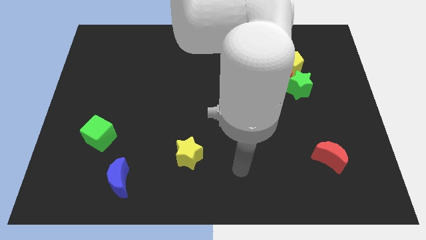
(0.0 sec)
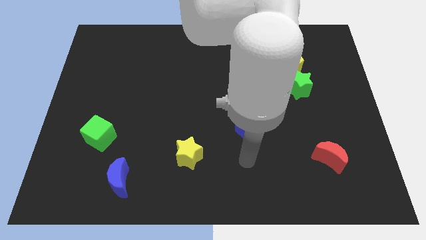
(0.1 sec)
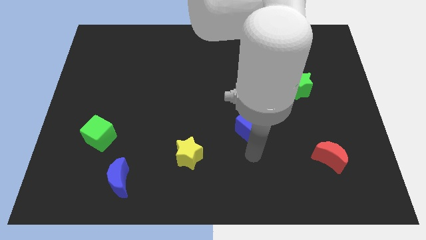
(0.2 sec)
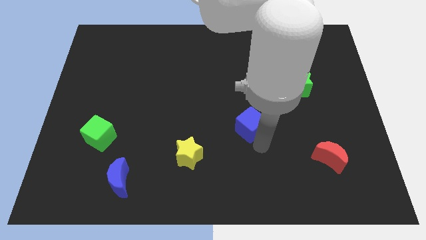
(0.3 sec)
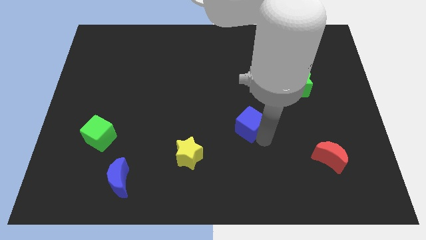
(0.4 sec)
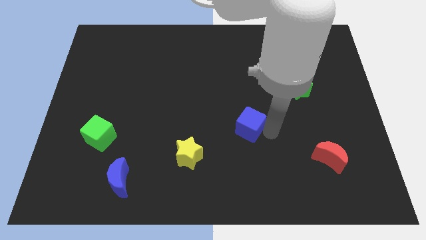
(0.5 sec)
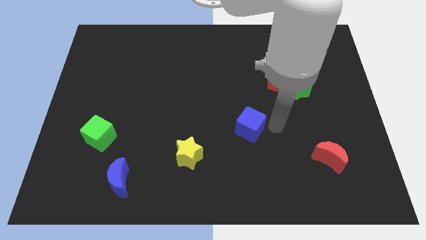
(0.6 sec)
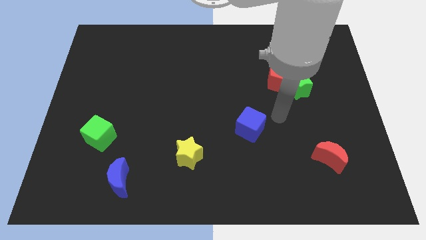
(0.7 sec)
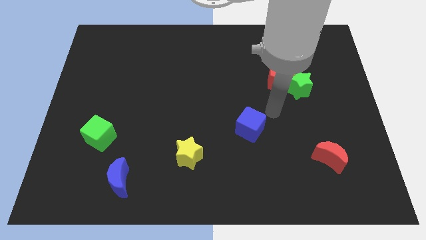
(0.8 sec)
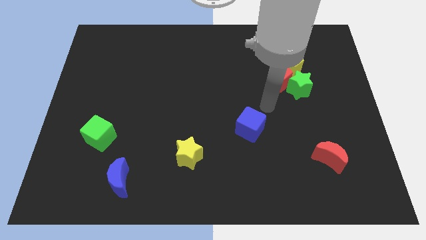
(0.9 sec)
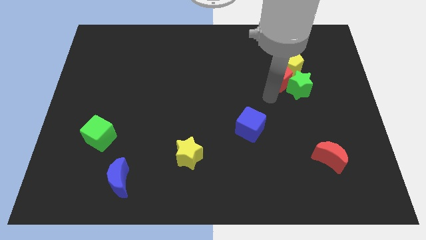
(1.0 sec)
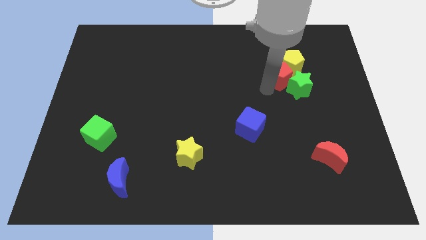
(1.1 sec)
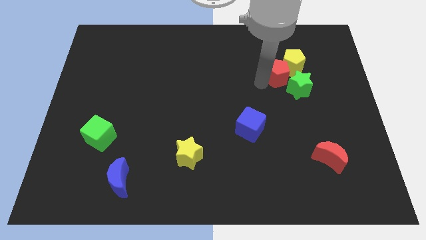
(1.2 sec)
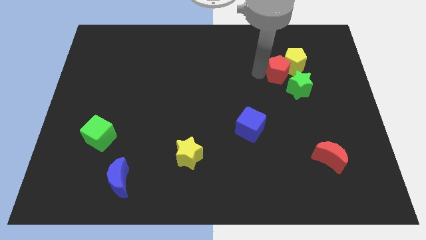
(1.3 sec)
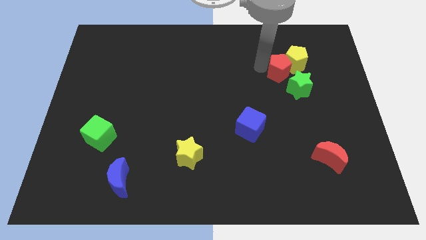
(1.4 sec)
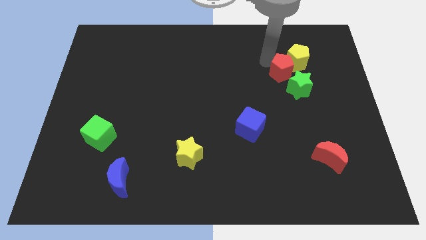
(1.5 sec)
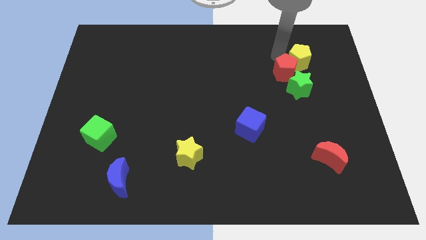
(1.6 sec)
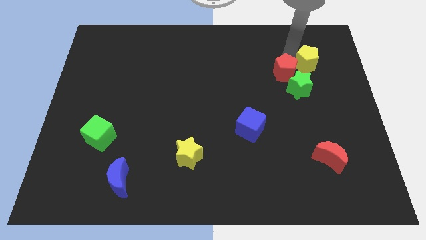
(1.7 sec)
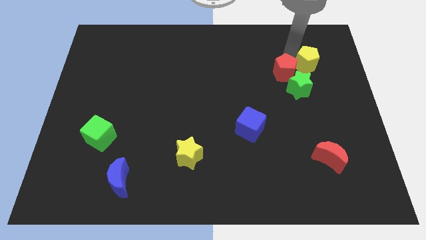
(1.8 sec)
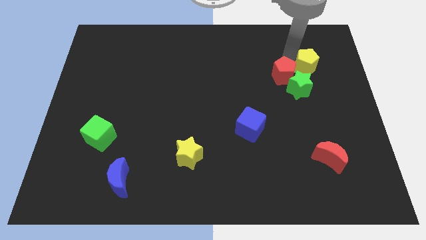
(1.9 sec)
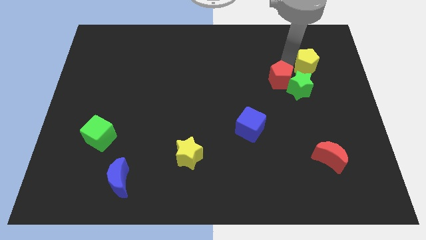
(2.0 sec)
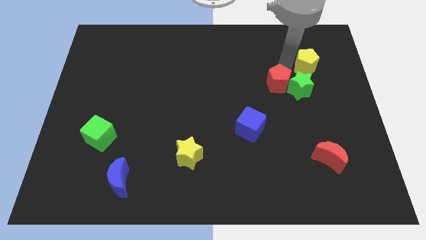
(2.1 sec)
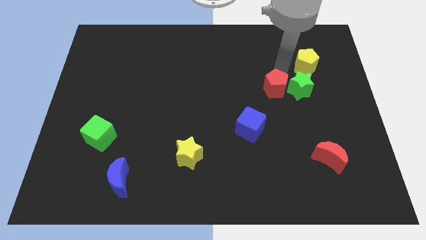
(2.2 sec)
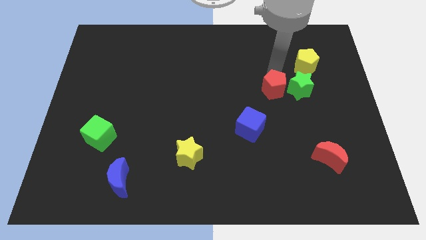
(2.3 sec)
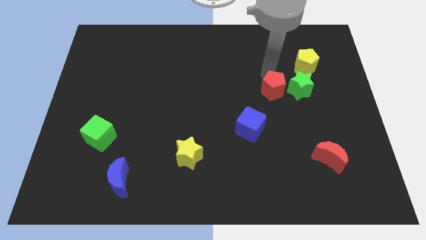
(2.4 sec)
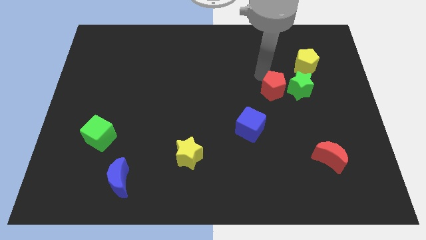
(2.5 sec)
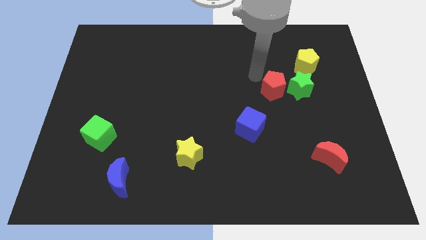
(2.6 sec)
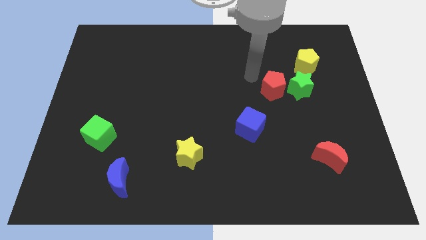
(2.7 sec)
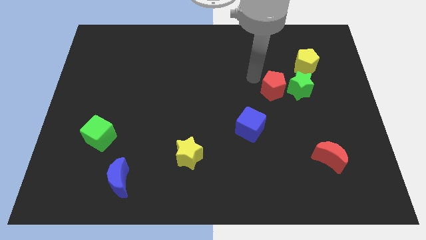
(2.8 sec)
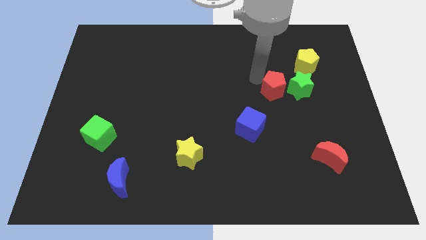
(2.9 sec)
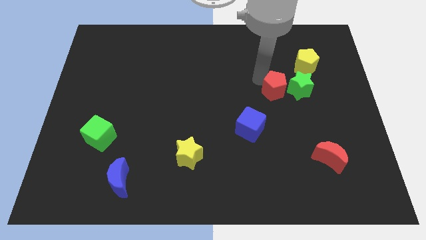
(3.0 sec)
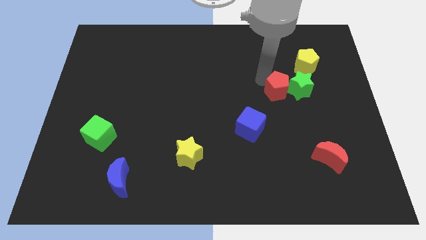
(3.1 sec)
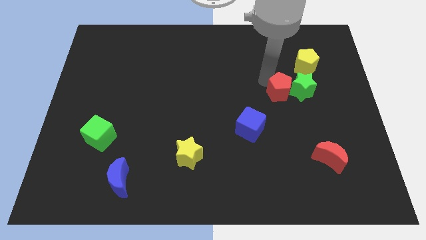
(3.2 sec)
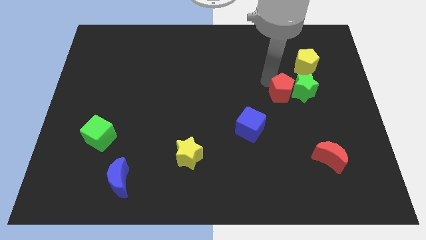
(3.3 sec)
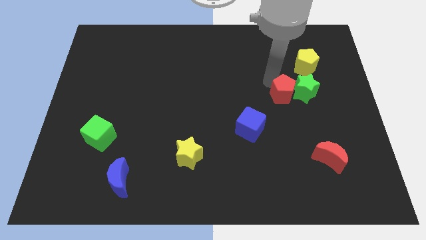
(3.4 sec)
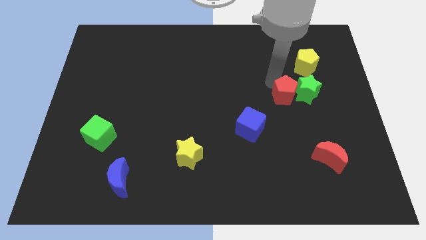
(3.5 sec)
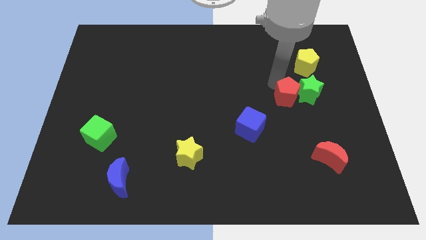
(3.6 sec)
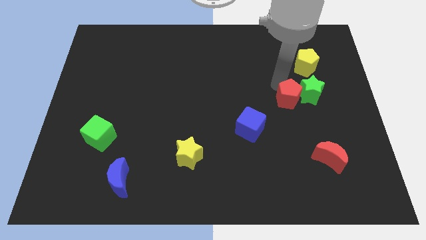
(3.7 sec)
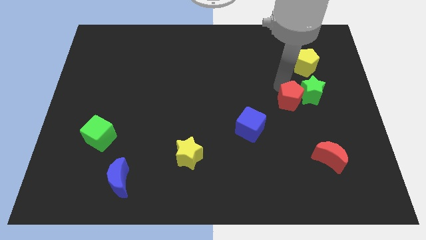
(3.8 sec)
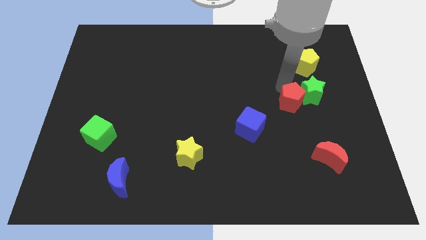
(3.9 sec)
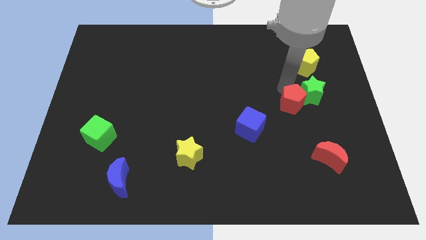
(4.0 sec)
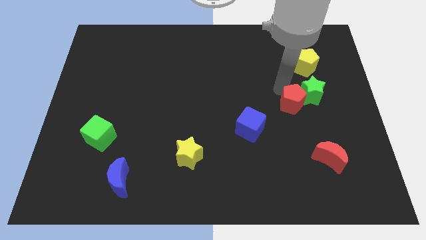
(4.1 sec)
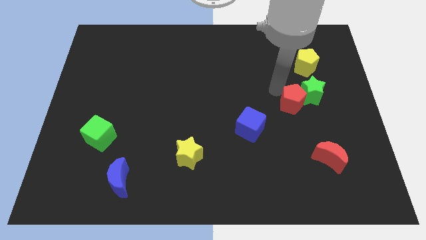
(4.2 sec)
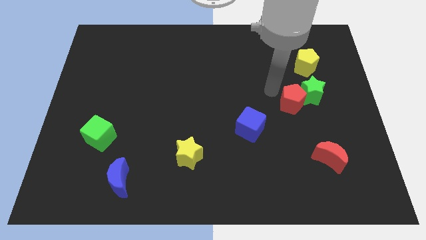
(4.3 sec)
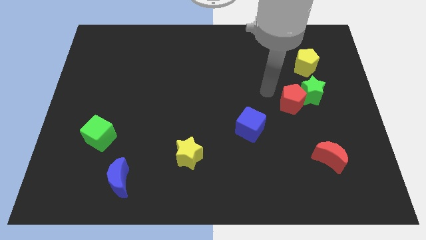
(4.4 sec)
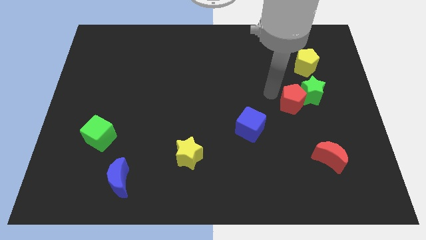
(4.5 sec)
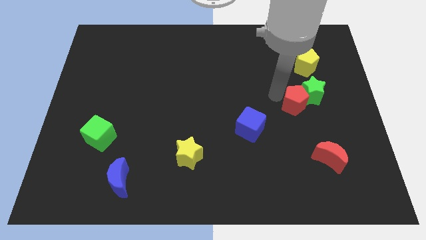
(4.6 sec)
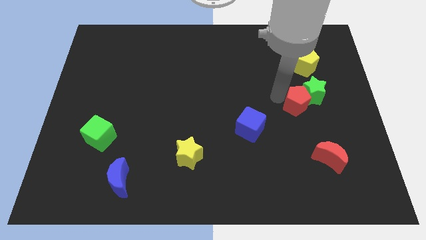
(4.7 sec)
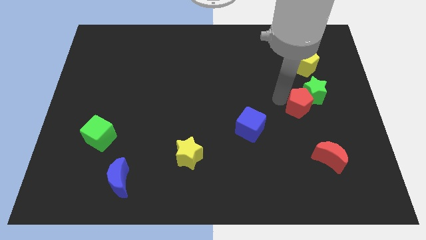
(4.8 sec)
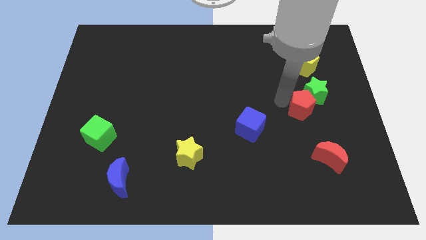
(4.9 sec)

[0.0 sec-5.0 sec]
push the red pentagon to the top side of the red moon

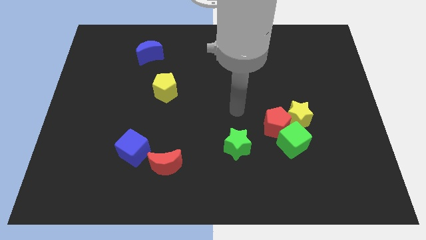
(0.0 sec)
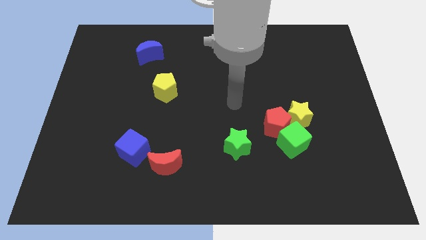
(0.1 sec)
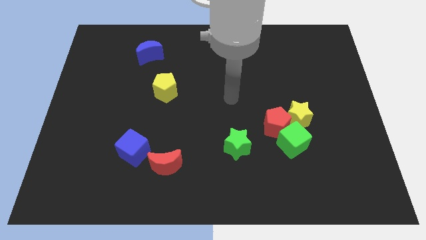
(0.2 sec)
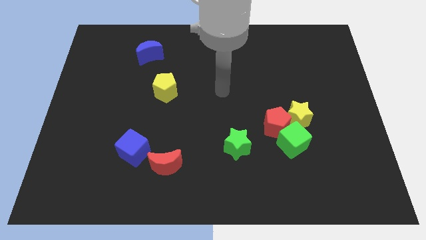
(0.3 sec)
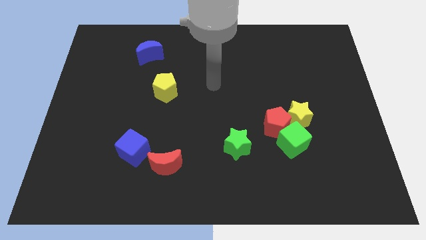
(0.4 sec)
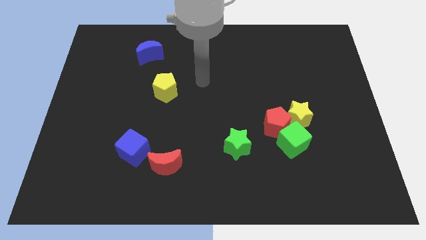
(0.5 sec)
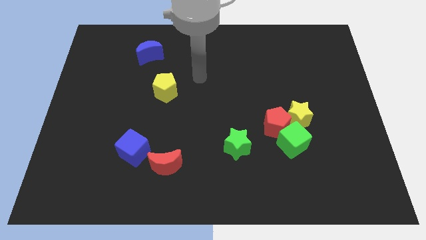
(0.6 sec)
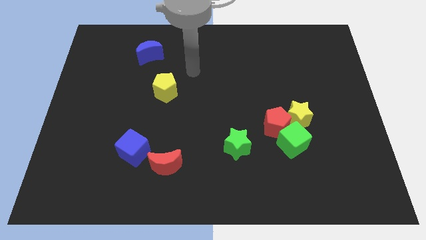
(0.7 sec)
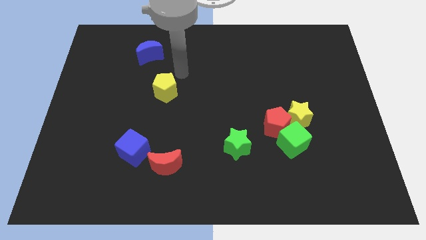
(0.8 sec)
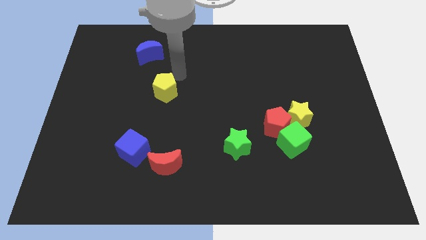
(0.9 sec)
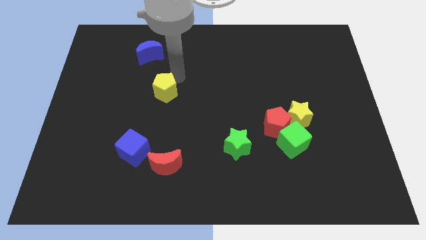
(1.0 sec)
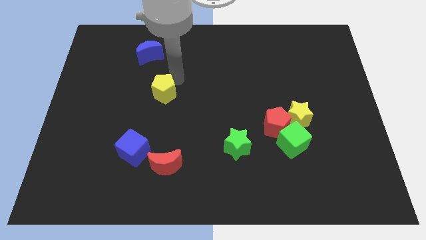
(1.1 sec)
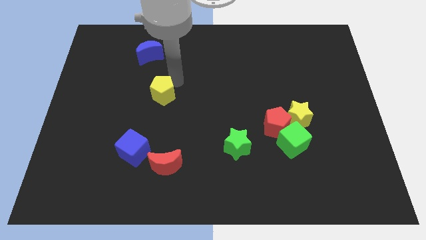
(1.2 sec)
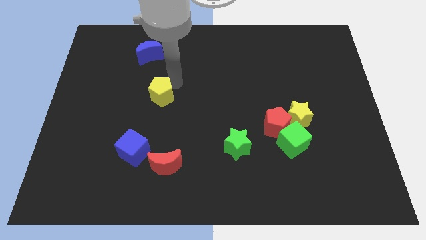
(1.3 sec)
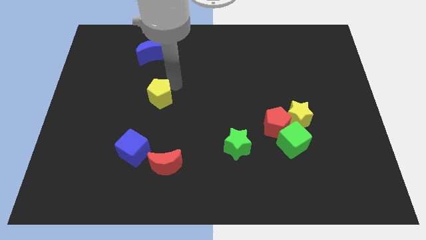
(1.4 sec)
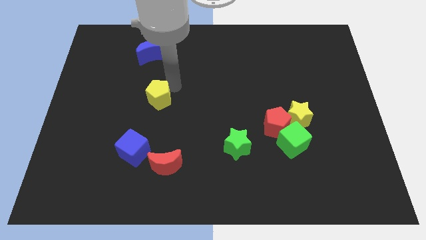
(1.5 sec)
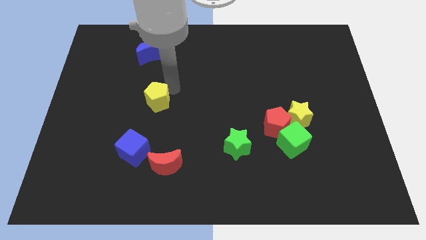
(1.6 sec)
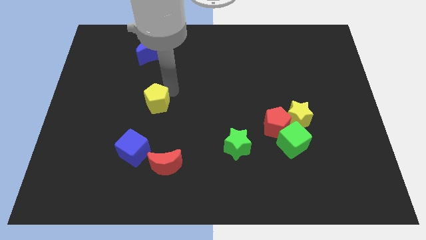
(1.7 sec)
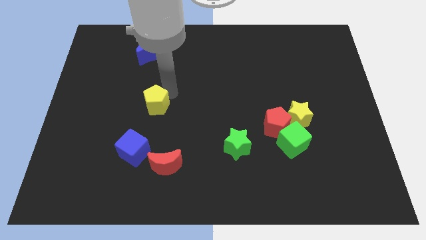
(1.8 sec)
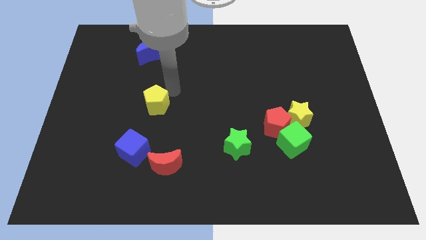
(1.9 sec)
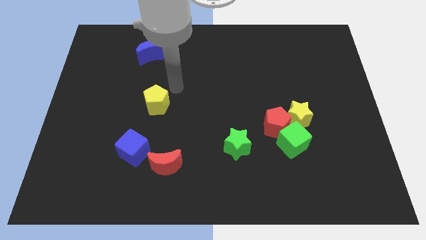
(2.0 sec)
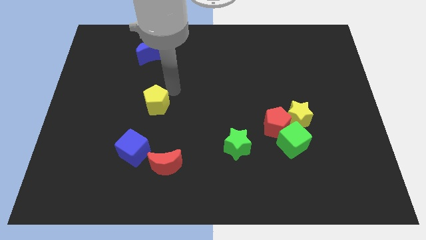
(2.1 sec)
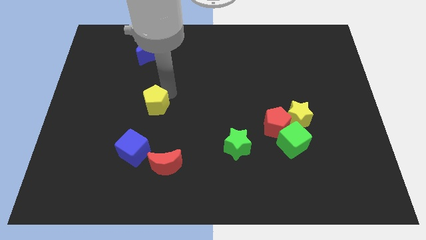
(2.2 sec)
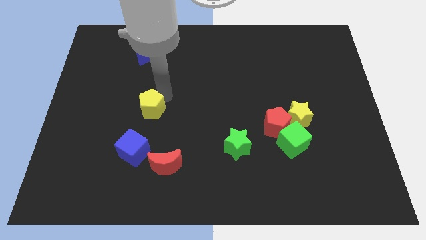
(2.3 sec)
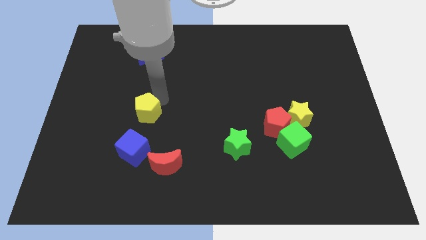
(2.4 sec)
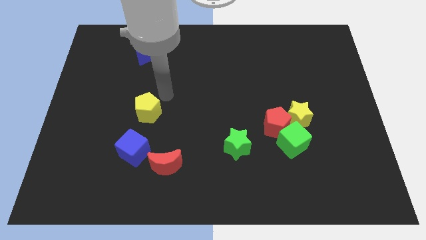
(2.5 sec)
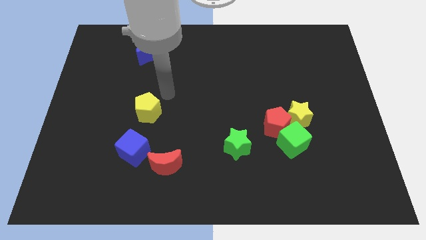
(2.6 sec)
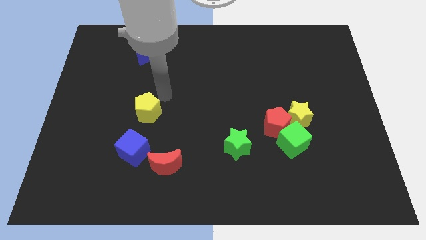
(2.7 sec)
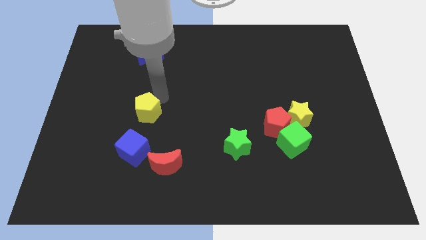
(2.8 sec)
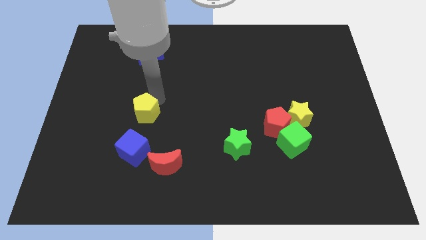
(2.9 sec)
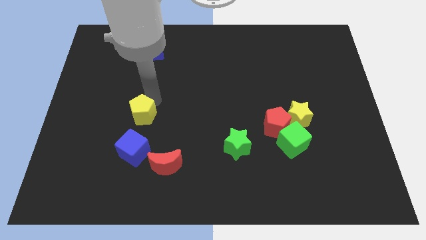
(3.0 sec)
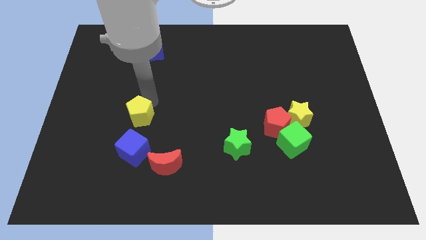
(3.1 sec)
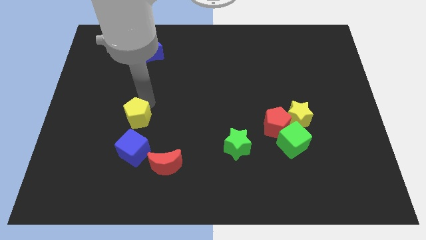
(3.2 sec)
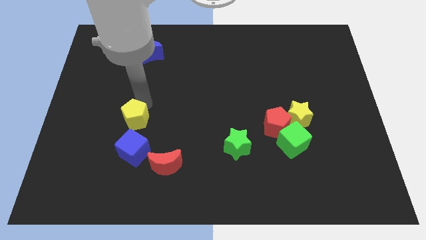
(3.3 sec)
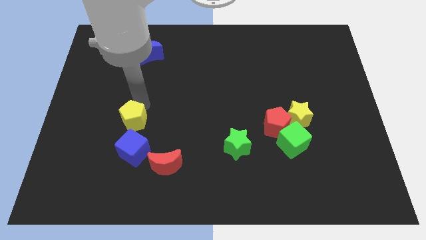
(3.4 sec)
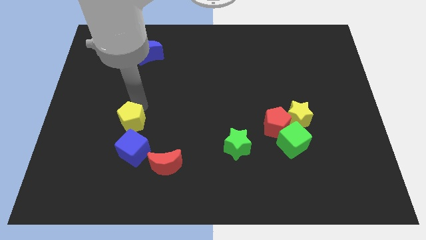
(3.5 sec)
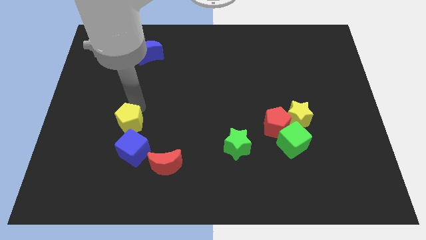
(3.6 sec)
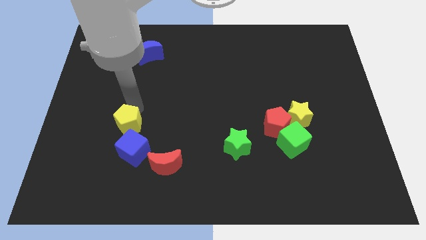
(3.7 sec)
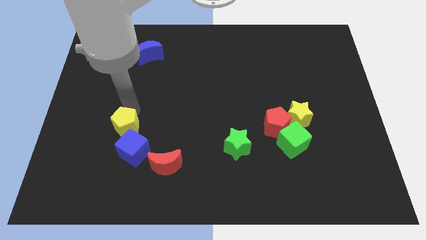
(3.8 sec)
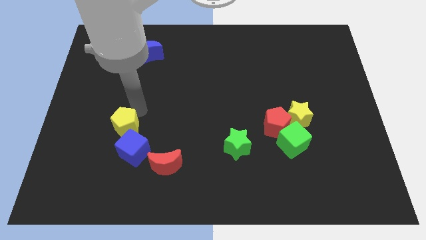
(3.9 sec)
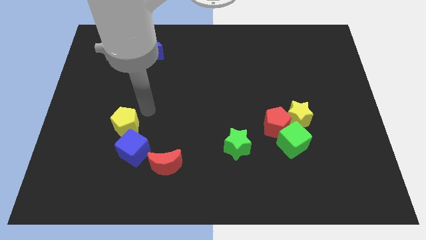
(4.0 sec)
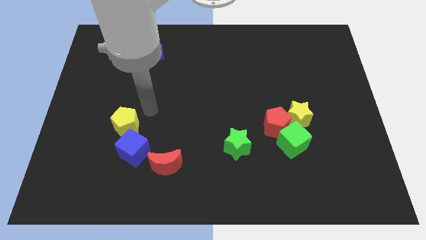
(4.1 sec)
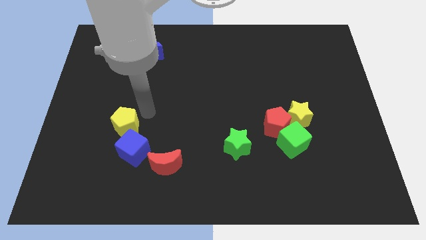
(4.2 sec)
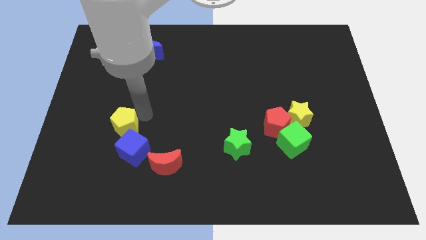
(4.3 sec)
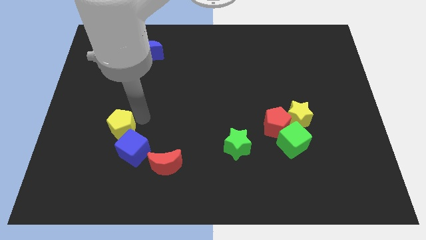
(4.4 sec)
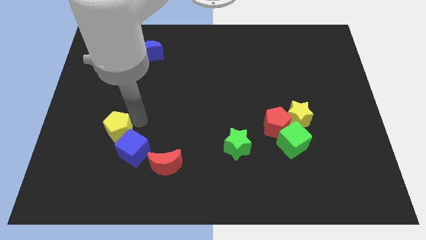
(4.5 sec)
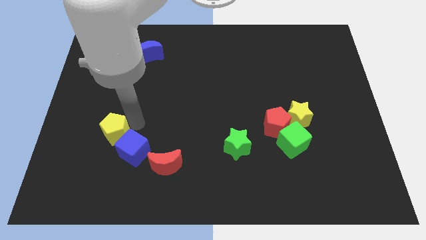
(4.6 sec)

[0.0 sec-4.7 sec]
slide the yellow pentagon left of the blue cube
